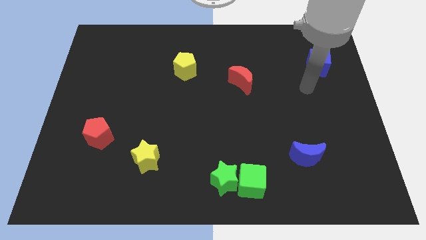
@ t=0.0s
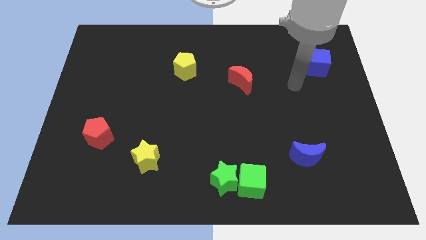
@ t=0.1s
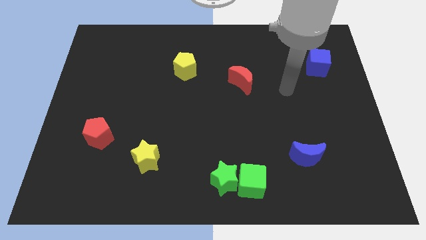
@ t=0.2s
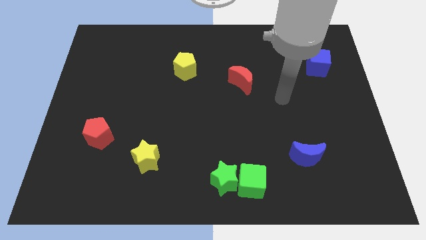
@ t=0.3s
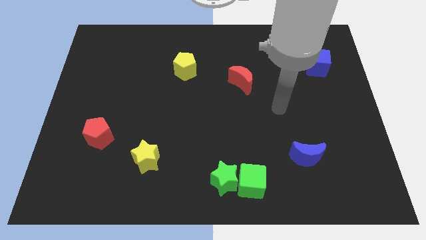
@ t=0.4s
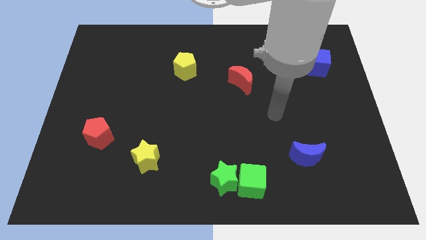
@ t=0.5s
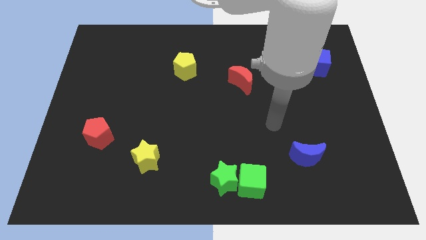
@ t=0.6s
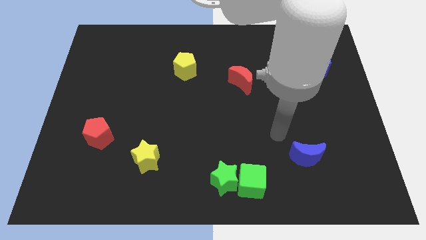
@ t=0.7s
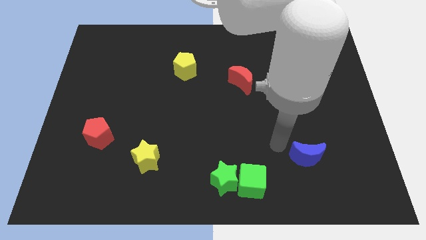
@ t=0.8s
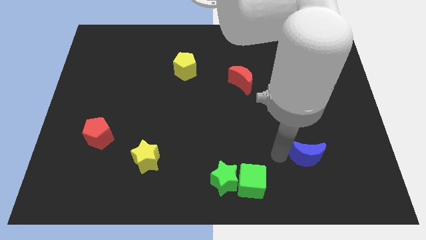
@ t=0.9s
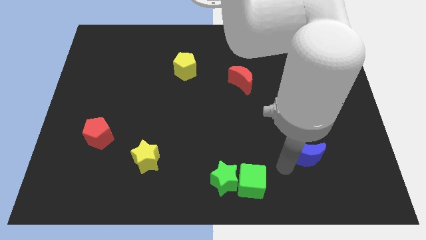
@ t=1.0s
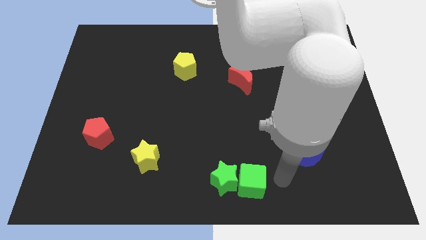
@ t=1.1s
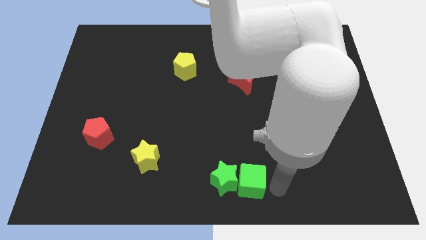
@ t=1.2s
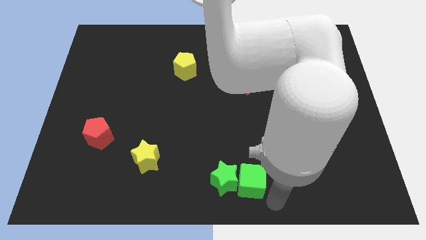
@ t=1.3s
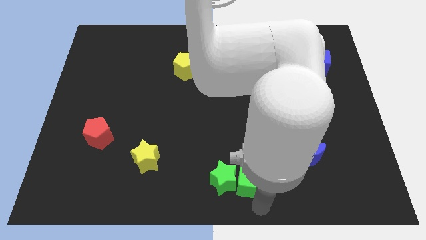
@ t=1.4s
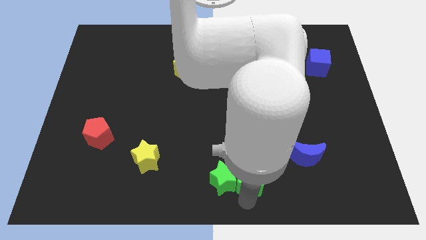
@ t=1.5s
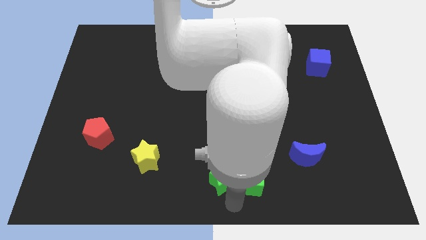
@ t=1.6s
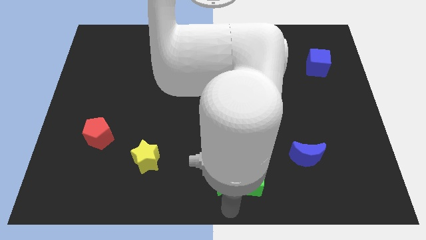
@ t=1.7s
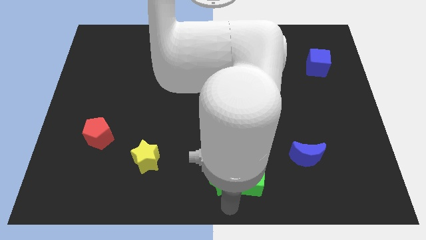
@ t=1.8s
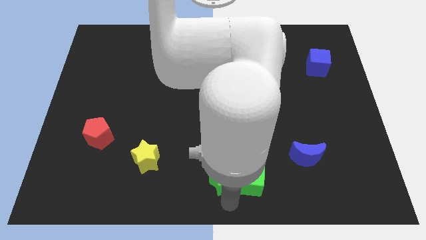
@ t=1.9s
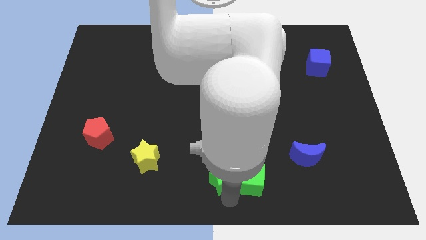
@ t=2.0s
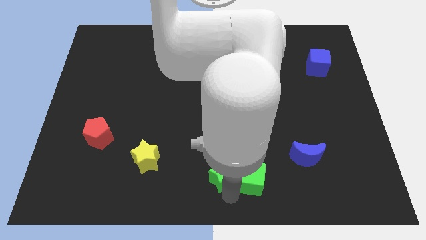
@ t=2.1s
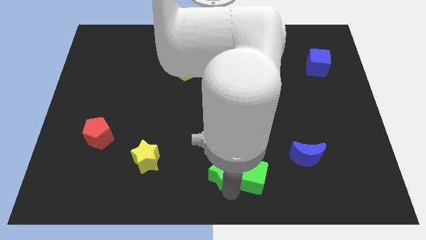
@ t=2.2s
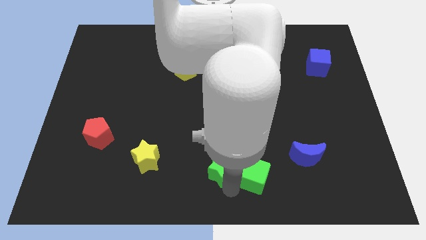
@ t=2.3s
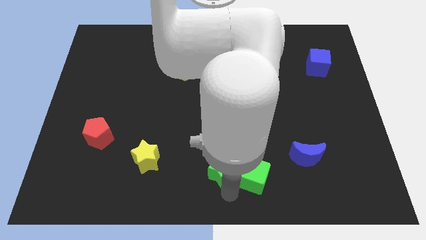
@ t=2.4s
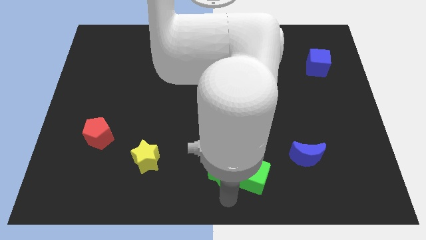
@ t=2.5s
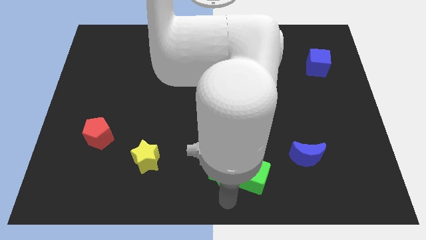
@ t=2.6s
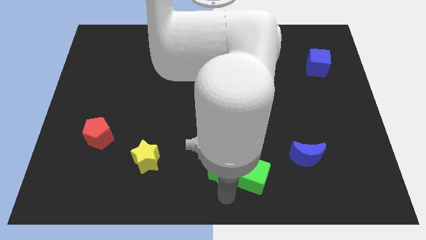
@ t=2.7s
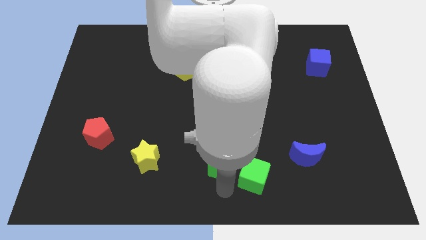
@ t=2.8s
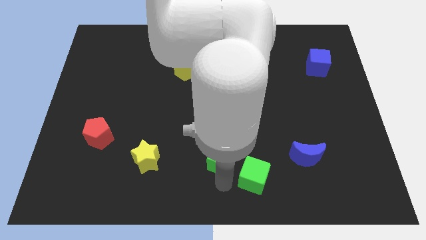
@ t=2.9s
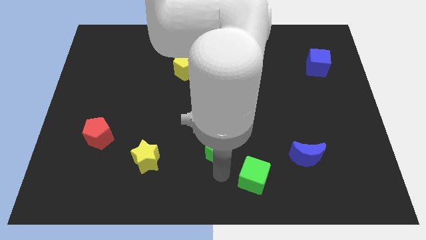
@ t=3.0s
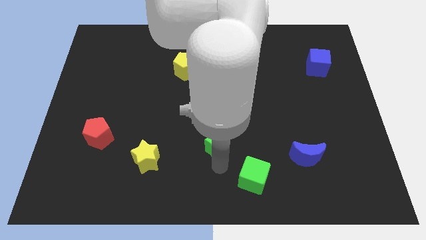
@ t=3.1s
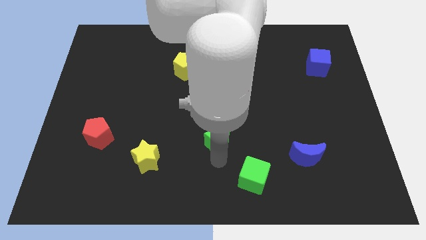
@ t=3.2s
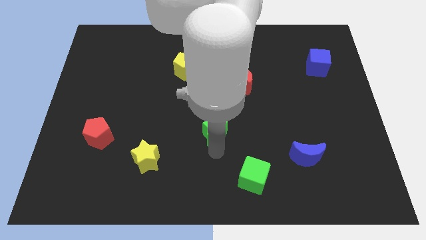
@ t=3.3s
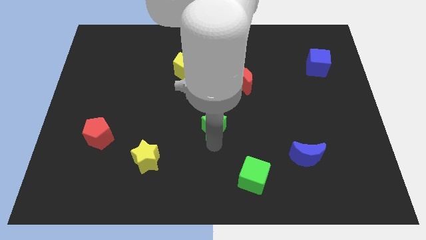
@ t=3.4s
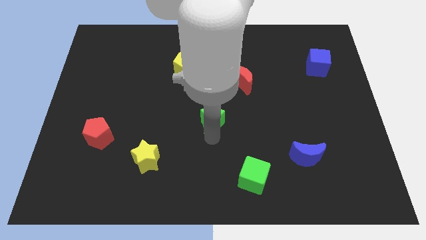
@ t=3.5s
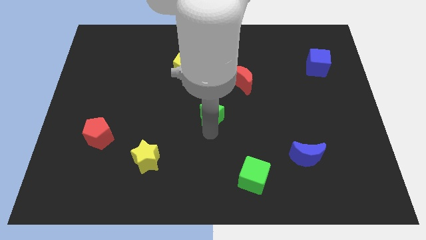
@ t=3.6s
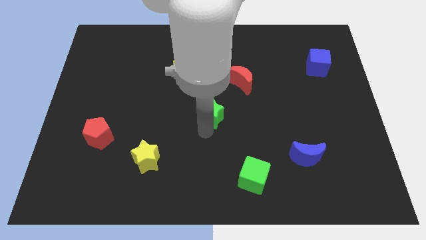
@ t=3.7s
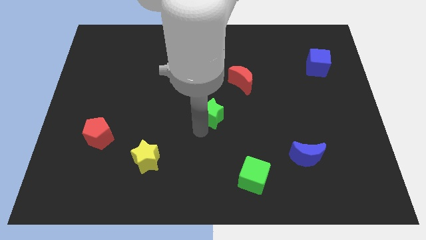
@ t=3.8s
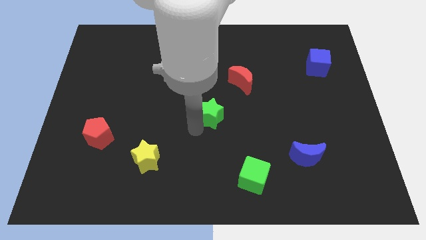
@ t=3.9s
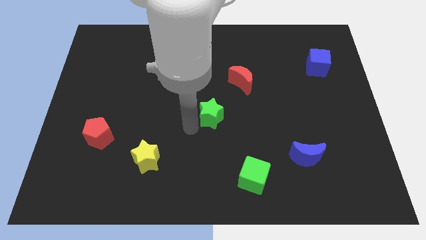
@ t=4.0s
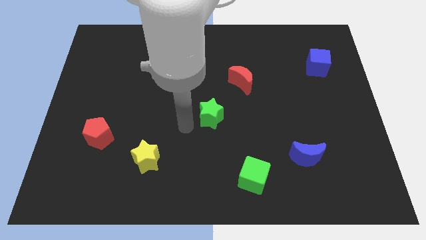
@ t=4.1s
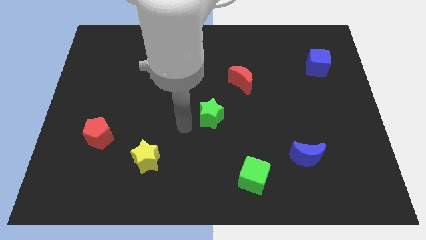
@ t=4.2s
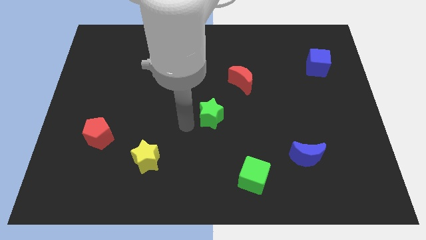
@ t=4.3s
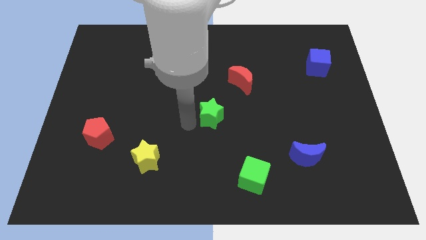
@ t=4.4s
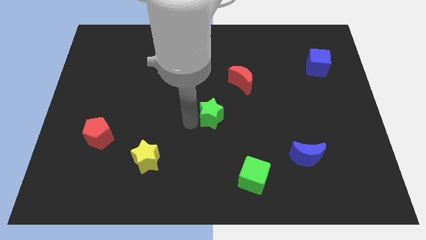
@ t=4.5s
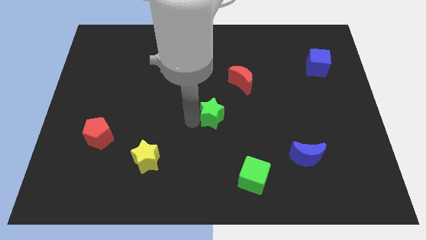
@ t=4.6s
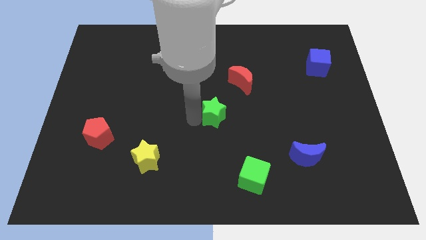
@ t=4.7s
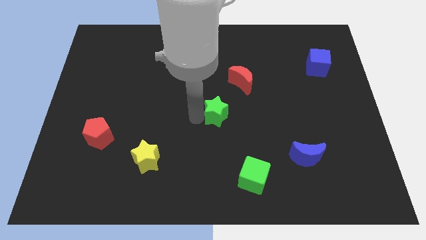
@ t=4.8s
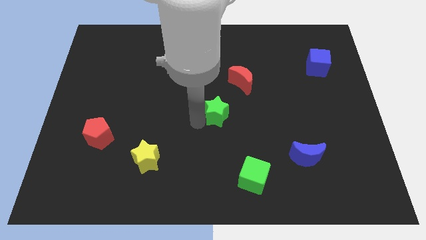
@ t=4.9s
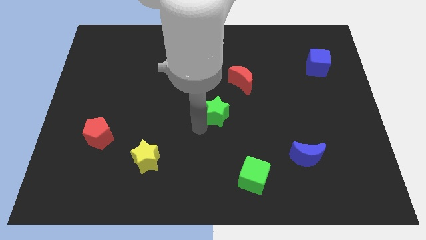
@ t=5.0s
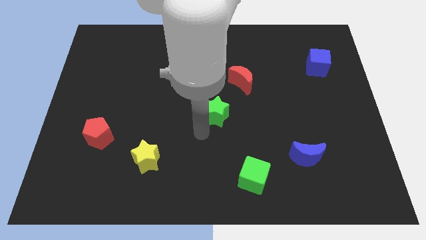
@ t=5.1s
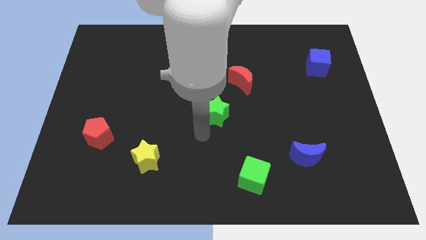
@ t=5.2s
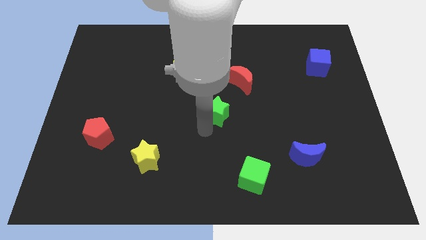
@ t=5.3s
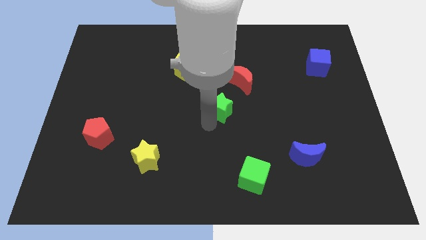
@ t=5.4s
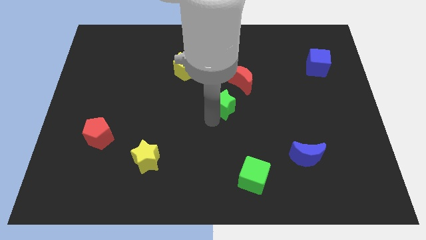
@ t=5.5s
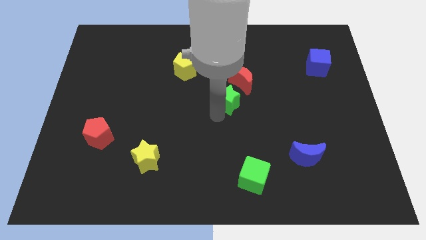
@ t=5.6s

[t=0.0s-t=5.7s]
move the green star upwards

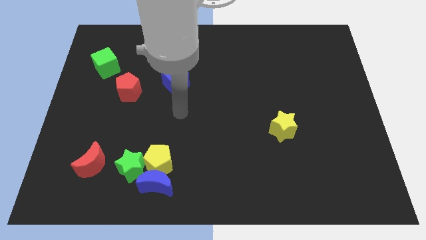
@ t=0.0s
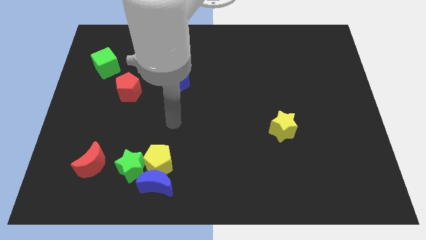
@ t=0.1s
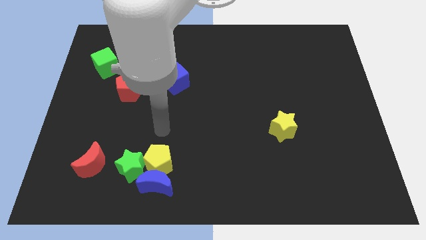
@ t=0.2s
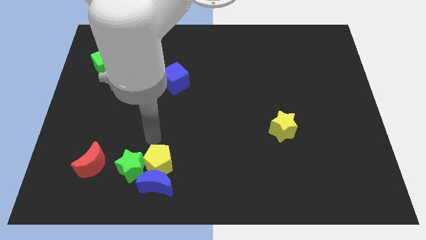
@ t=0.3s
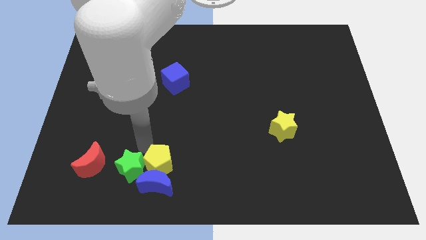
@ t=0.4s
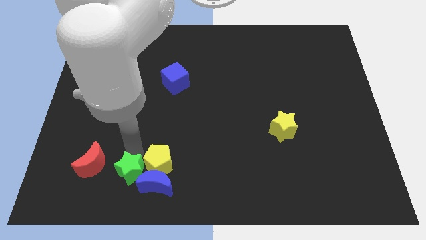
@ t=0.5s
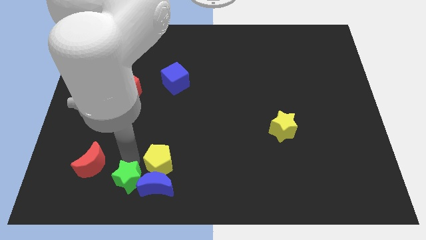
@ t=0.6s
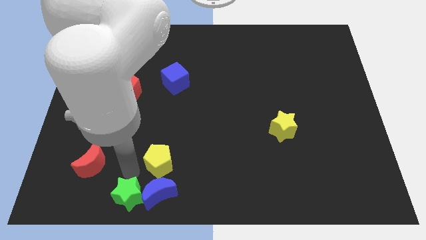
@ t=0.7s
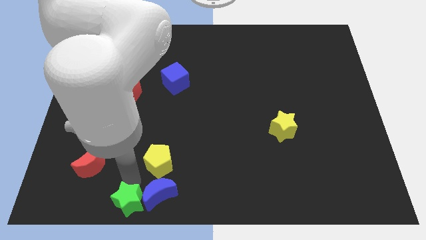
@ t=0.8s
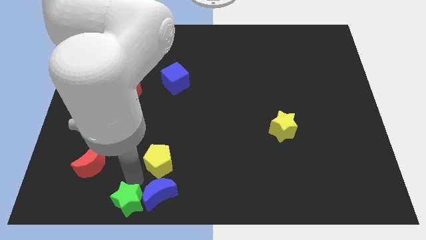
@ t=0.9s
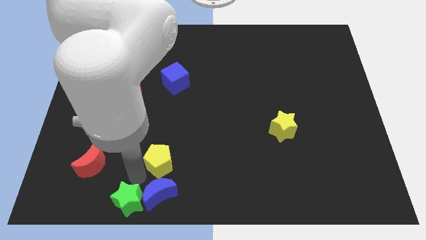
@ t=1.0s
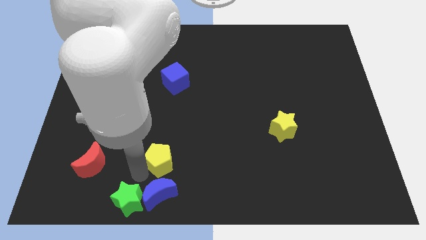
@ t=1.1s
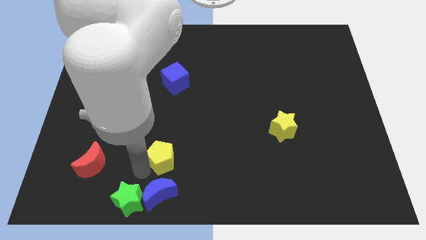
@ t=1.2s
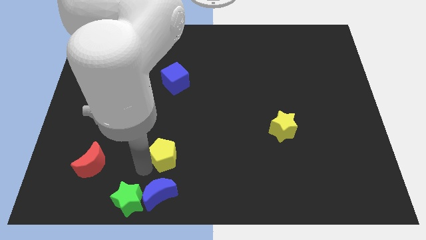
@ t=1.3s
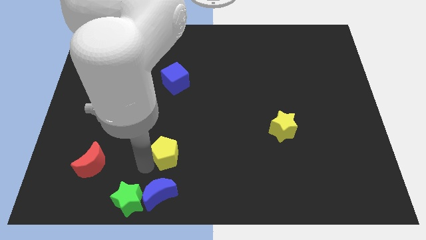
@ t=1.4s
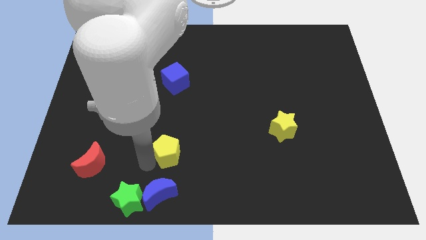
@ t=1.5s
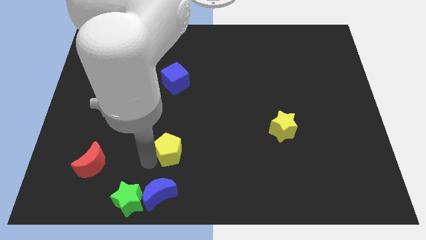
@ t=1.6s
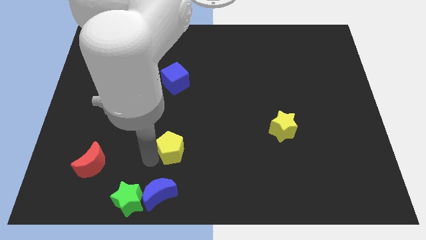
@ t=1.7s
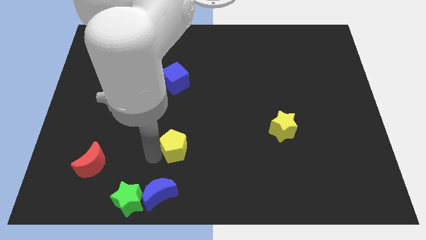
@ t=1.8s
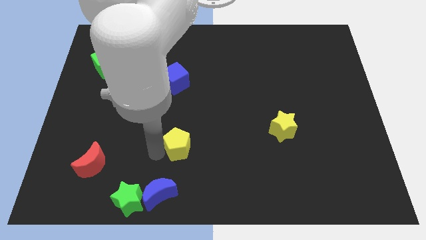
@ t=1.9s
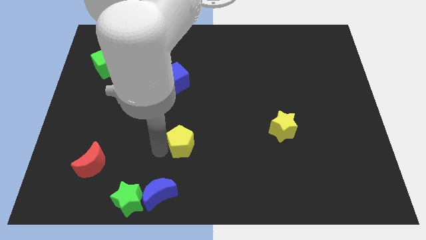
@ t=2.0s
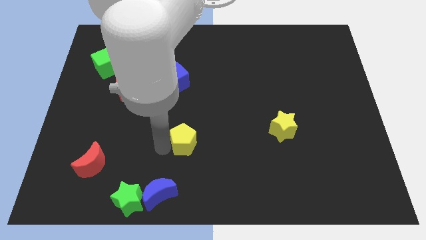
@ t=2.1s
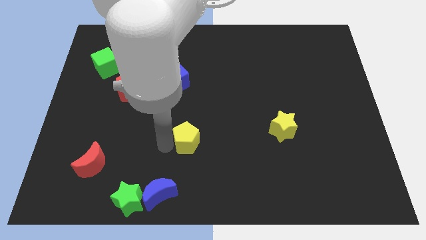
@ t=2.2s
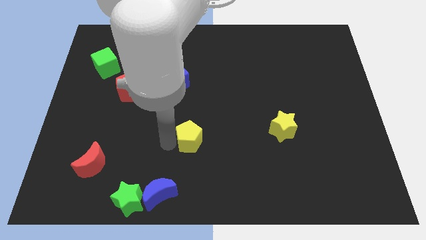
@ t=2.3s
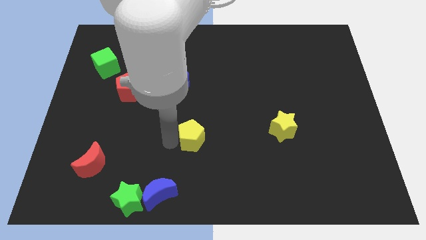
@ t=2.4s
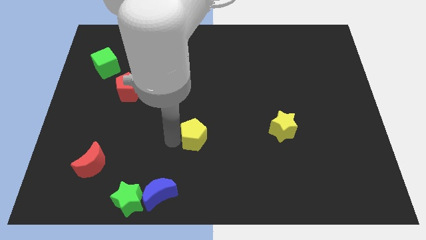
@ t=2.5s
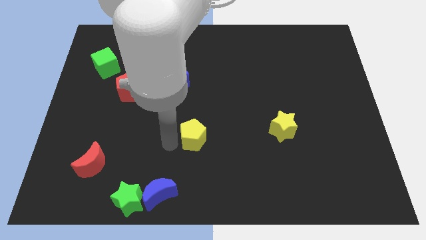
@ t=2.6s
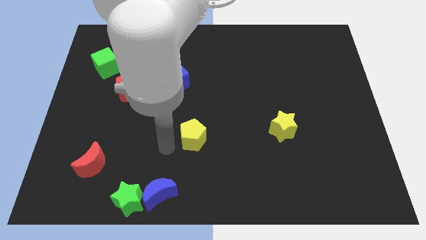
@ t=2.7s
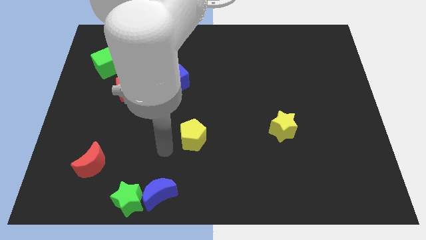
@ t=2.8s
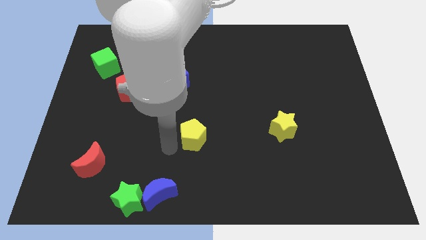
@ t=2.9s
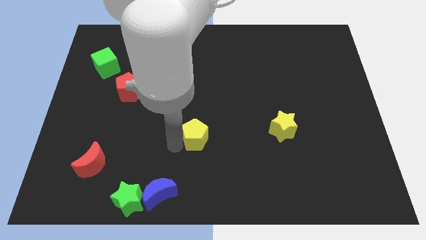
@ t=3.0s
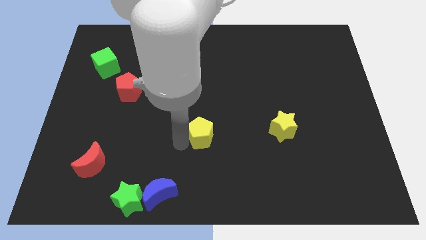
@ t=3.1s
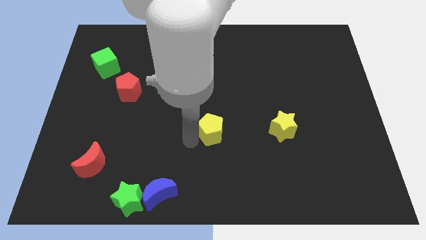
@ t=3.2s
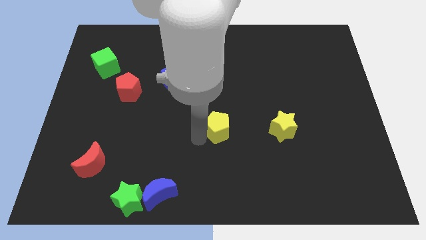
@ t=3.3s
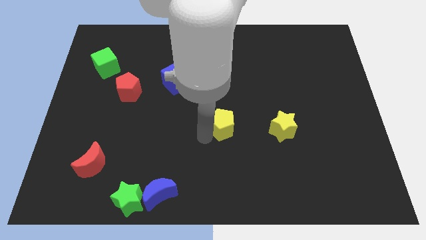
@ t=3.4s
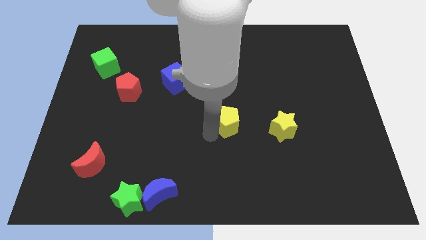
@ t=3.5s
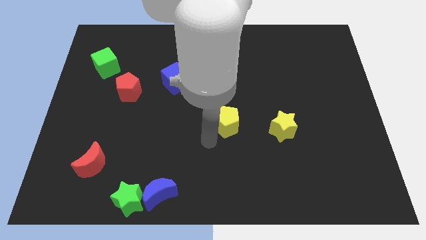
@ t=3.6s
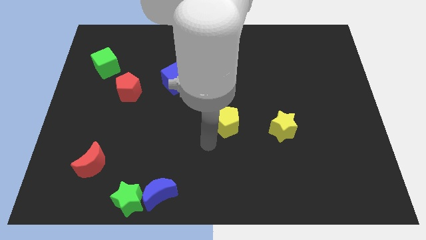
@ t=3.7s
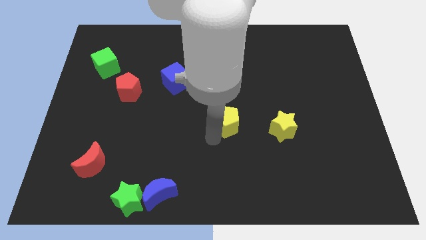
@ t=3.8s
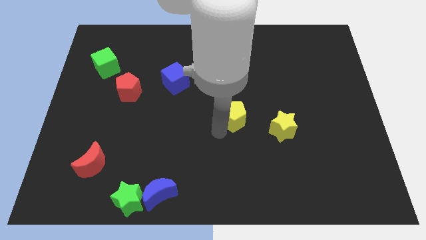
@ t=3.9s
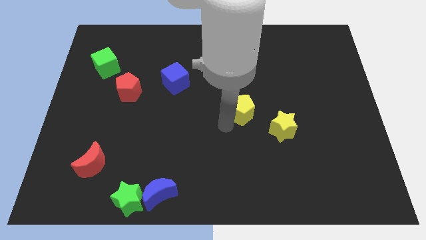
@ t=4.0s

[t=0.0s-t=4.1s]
push the yellow pentagon upwards and to the right diagonally
